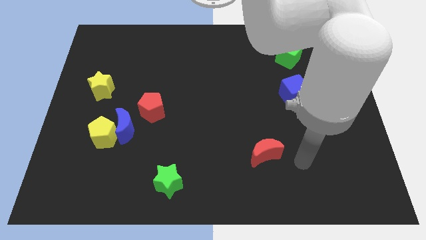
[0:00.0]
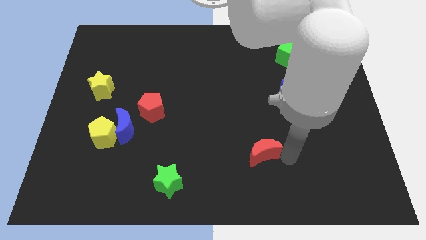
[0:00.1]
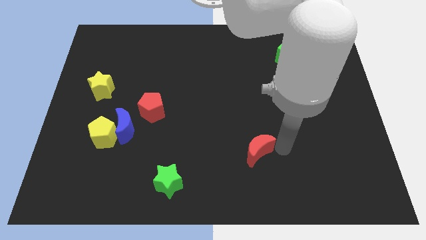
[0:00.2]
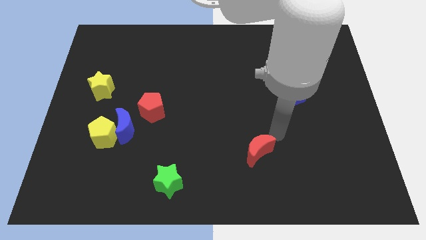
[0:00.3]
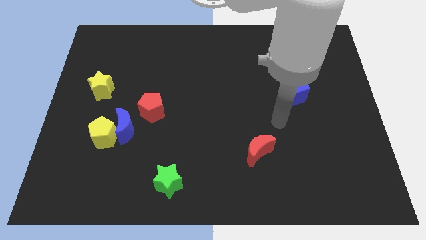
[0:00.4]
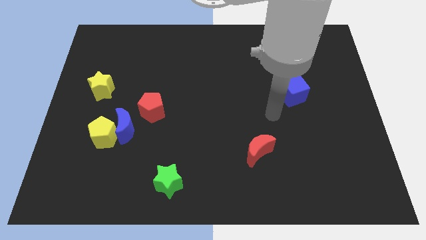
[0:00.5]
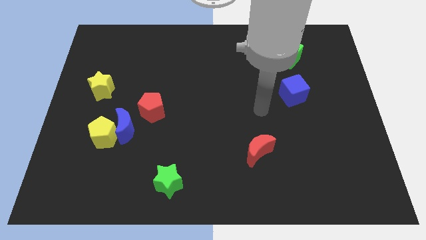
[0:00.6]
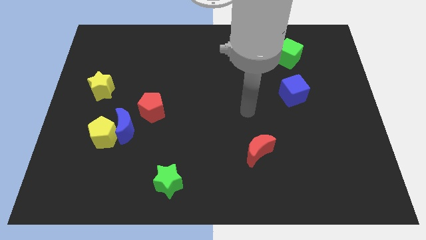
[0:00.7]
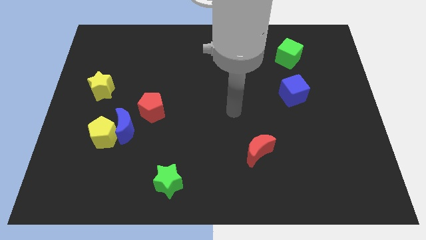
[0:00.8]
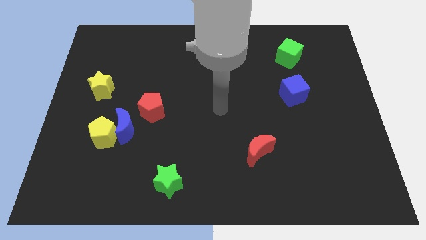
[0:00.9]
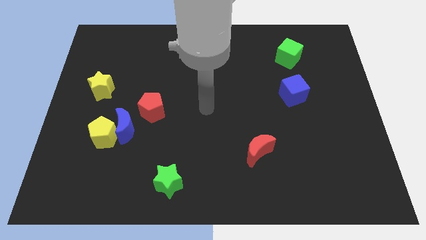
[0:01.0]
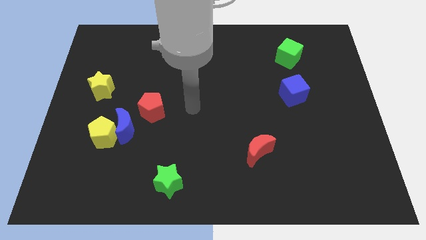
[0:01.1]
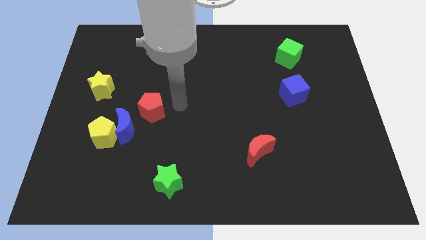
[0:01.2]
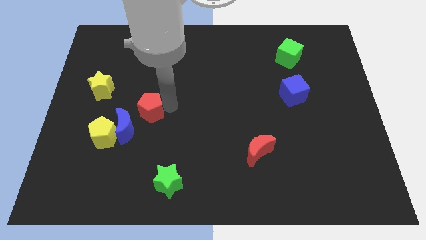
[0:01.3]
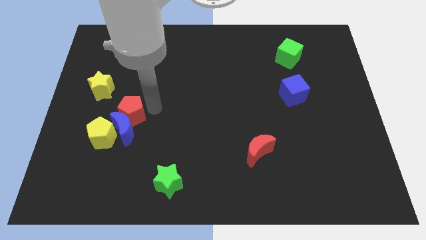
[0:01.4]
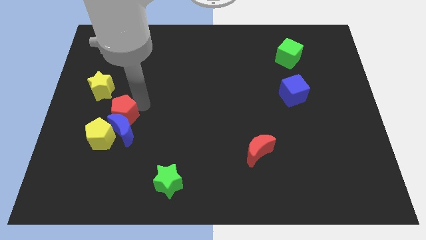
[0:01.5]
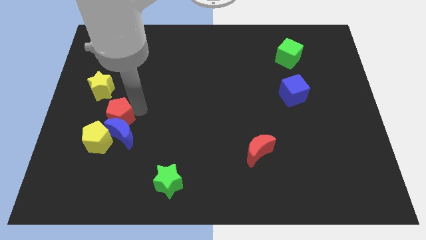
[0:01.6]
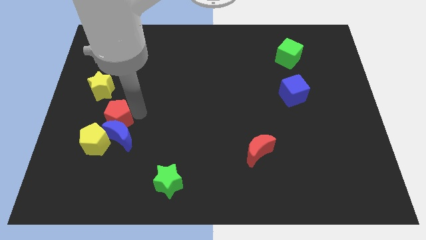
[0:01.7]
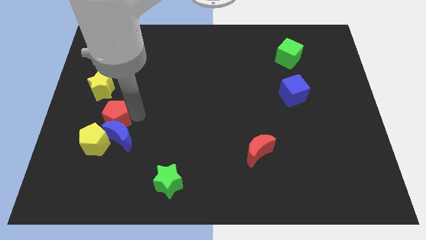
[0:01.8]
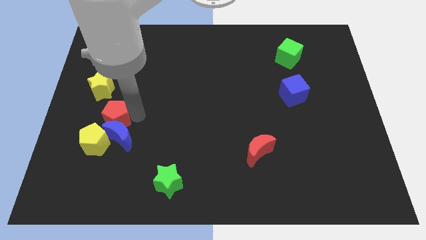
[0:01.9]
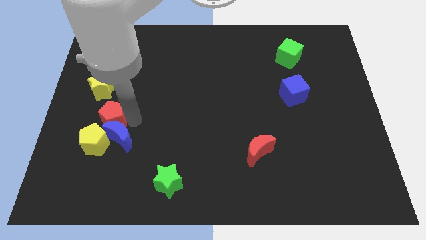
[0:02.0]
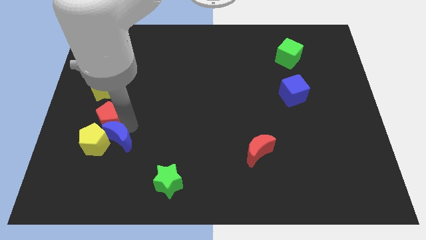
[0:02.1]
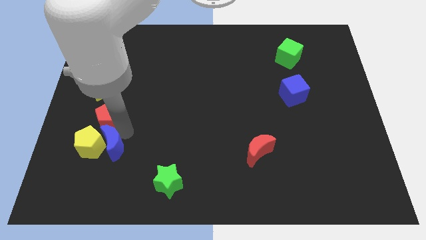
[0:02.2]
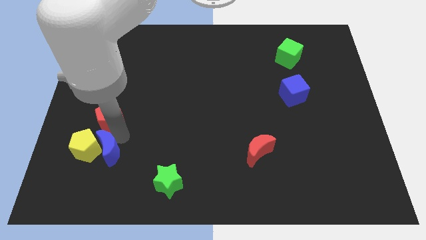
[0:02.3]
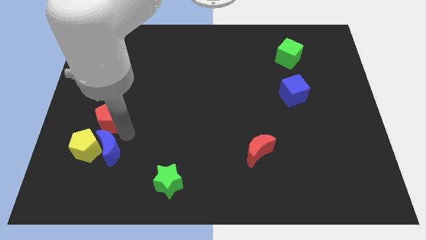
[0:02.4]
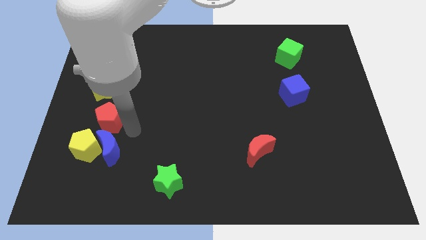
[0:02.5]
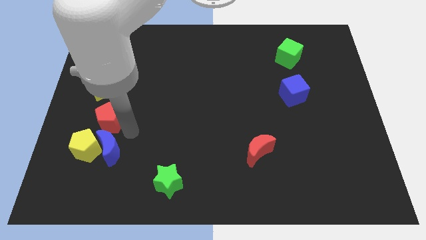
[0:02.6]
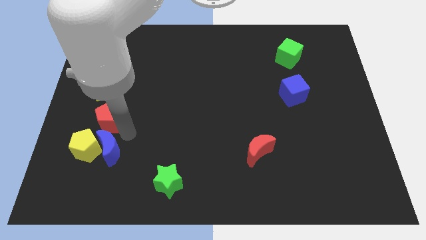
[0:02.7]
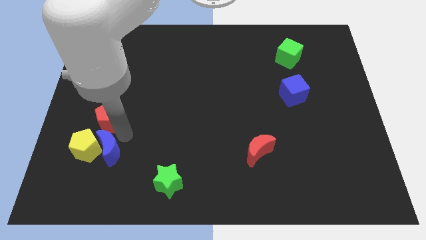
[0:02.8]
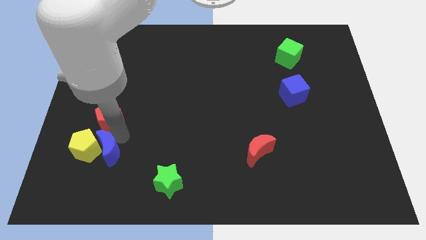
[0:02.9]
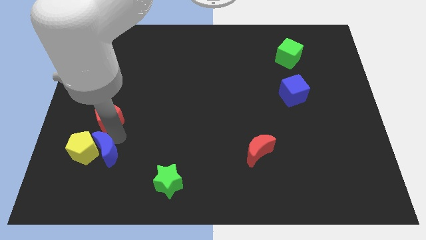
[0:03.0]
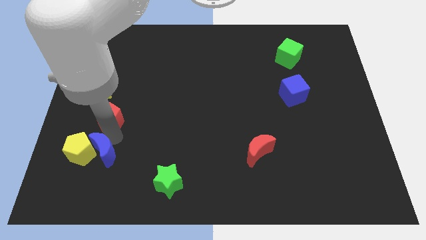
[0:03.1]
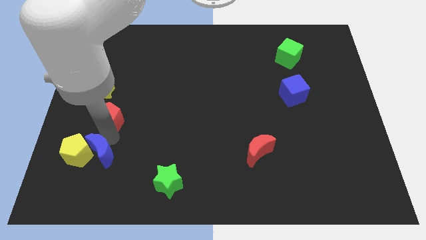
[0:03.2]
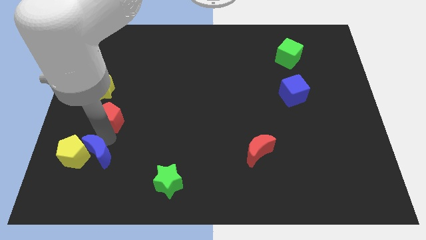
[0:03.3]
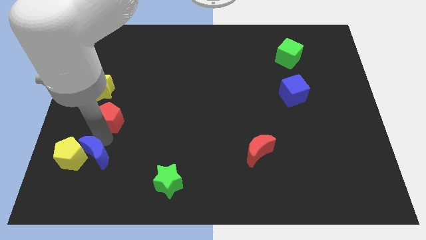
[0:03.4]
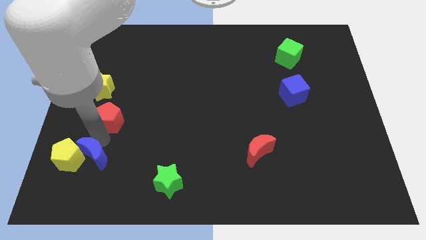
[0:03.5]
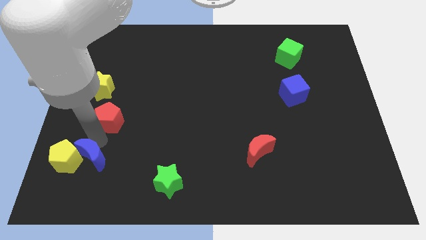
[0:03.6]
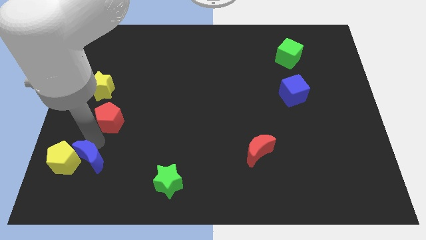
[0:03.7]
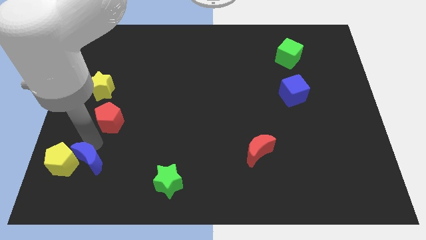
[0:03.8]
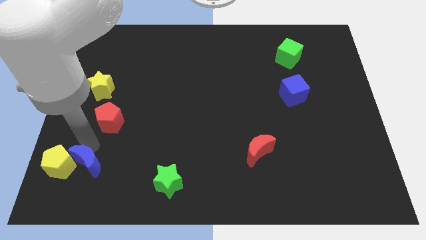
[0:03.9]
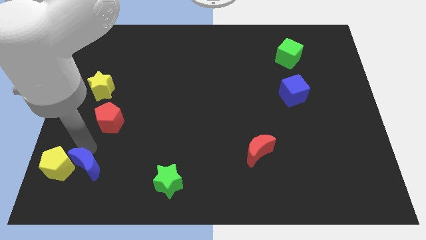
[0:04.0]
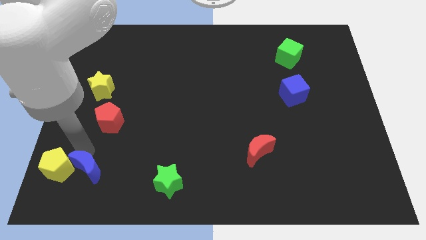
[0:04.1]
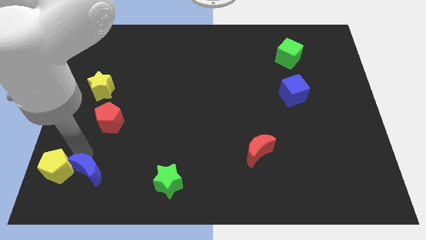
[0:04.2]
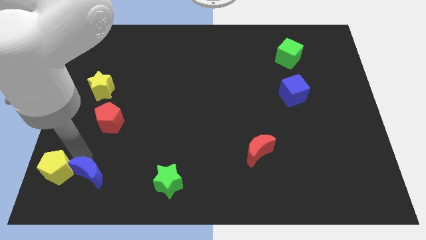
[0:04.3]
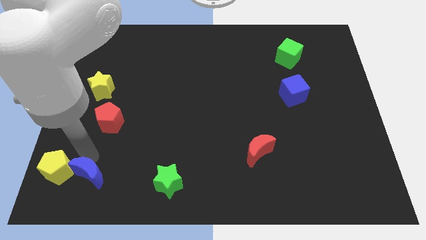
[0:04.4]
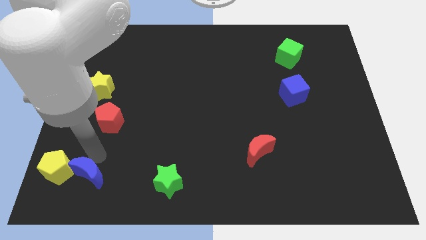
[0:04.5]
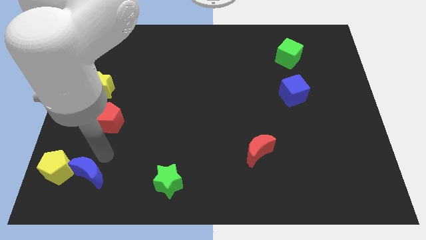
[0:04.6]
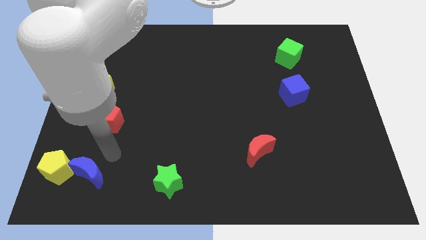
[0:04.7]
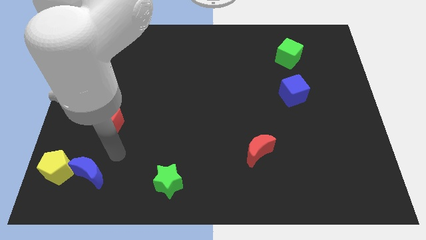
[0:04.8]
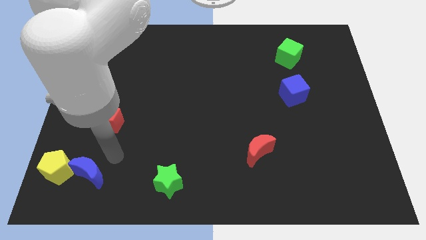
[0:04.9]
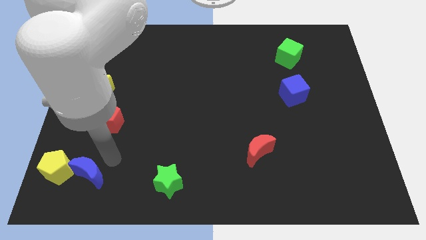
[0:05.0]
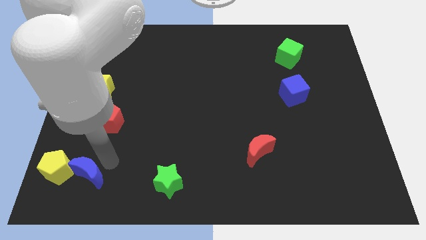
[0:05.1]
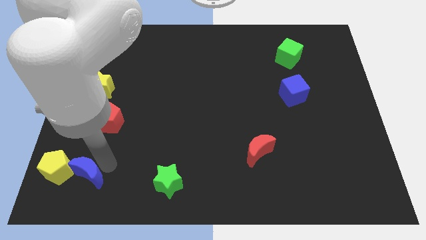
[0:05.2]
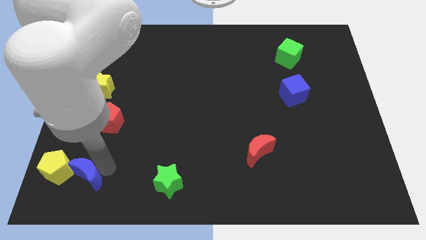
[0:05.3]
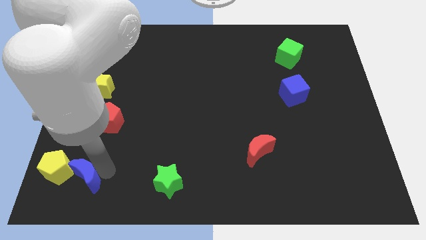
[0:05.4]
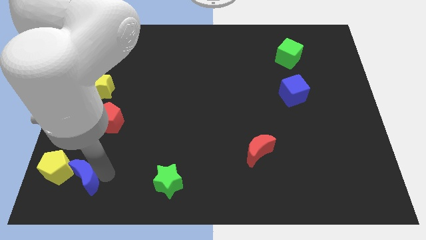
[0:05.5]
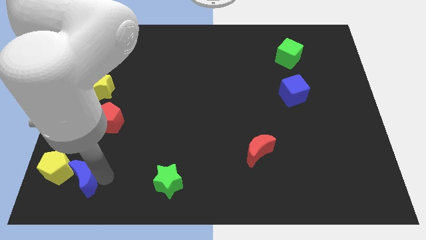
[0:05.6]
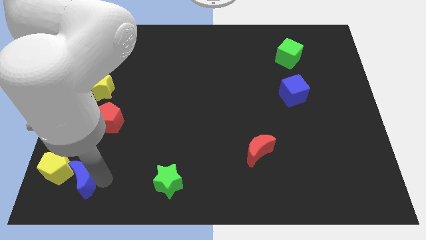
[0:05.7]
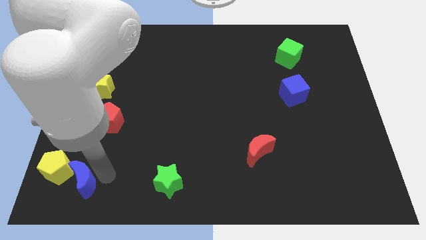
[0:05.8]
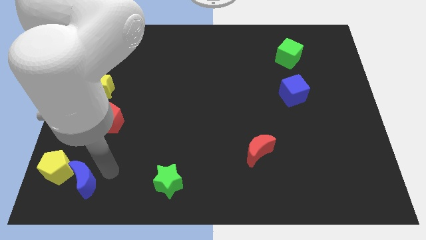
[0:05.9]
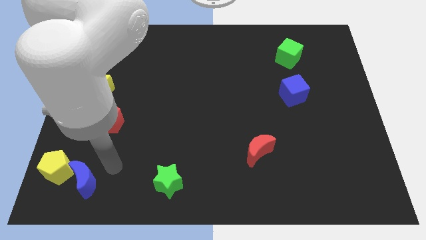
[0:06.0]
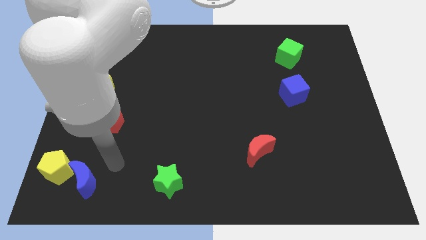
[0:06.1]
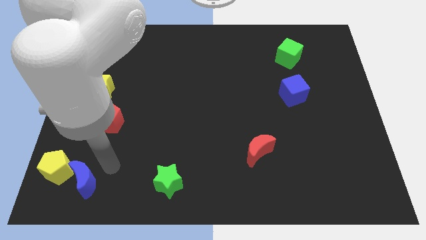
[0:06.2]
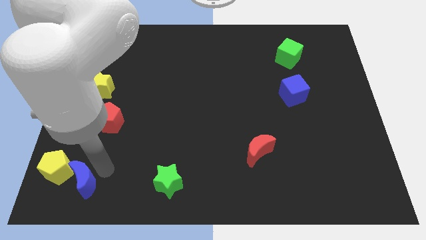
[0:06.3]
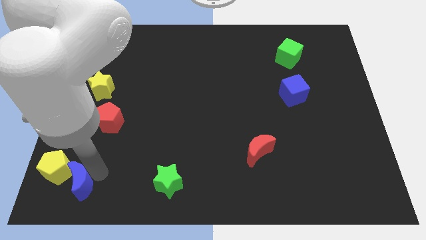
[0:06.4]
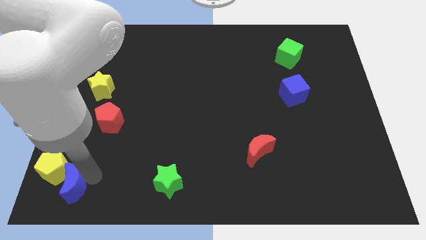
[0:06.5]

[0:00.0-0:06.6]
move the blue moon to the lower left corner
